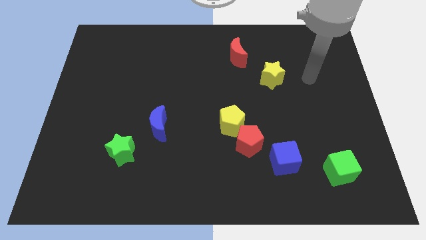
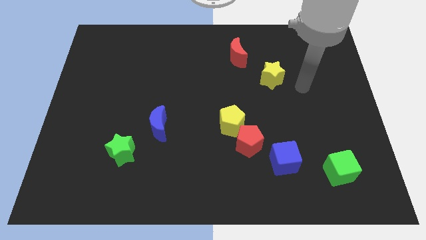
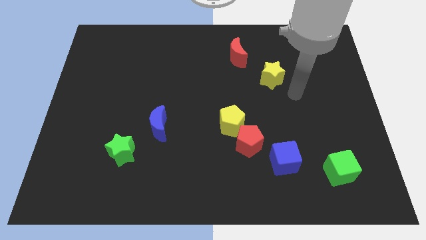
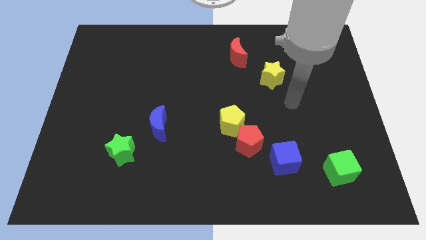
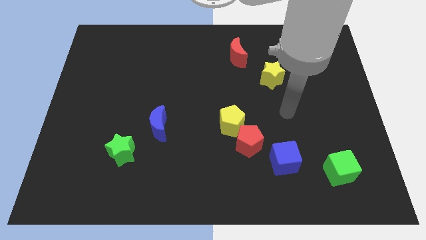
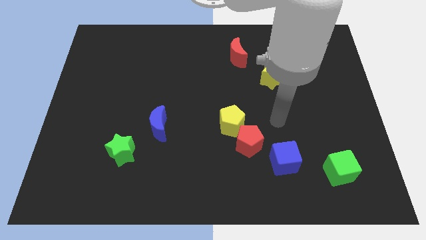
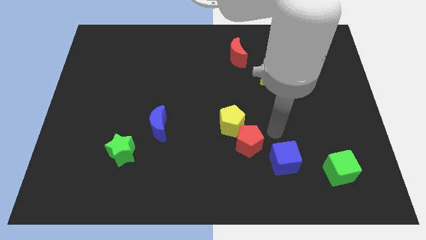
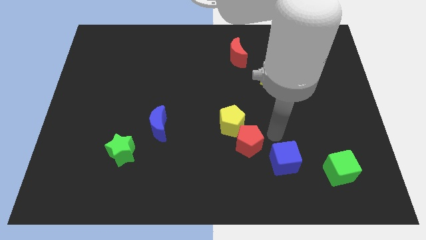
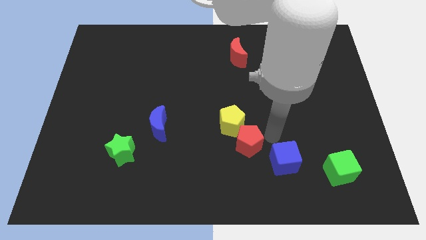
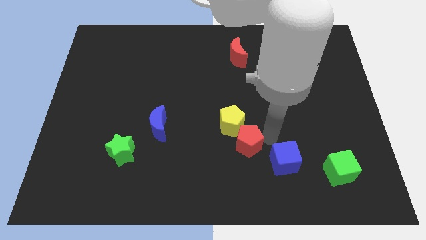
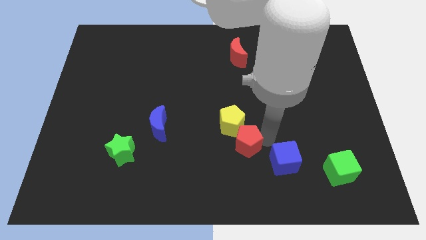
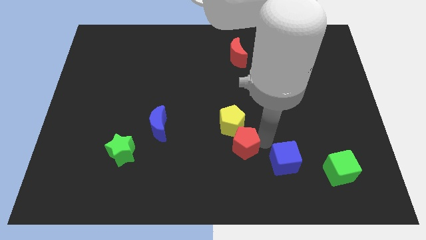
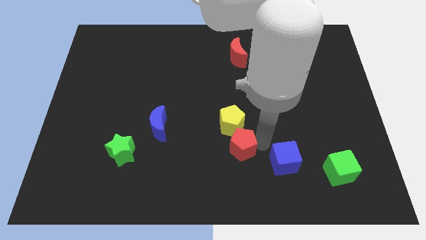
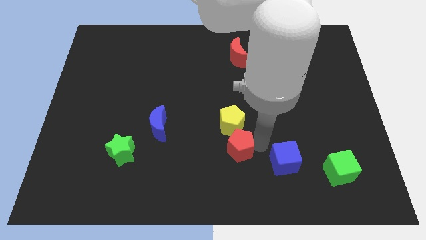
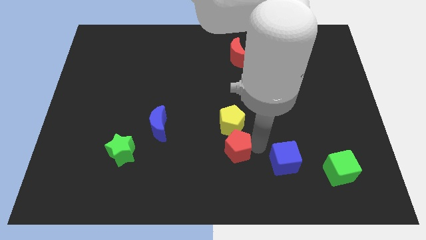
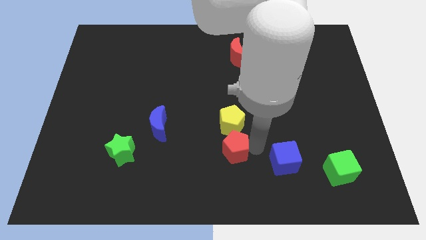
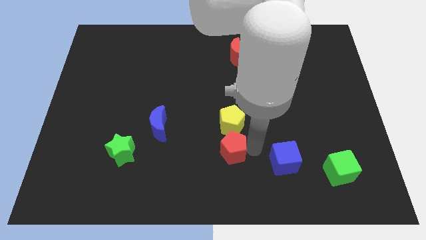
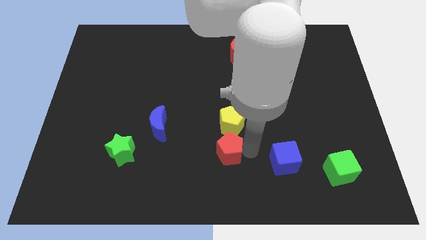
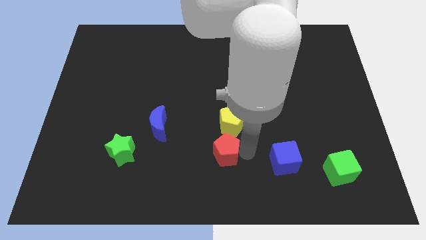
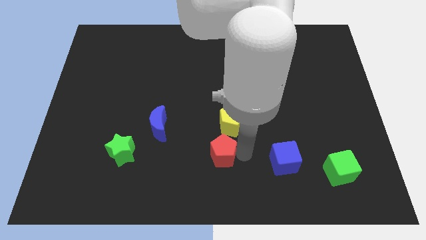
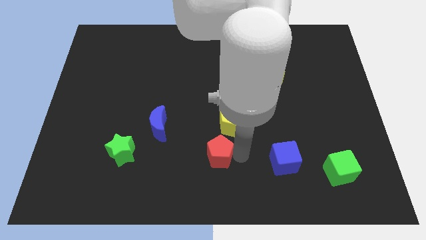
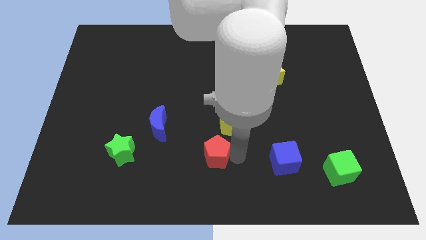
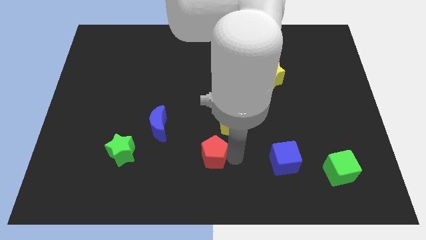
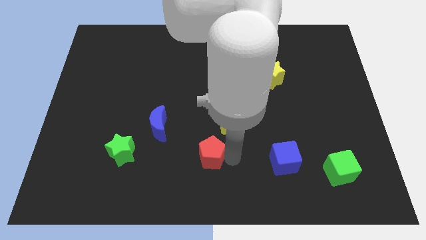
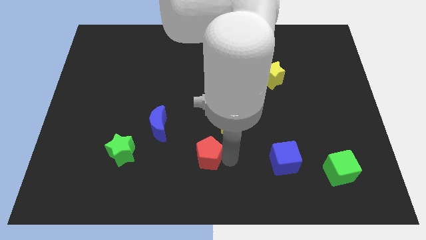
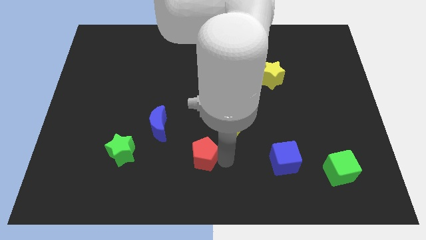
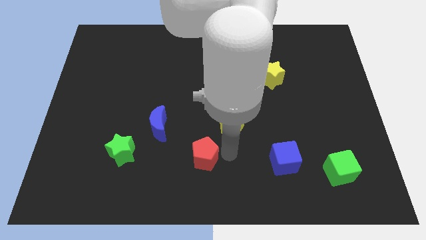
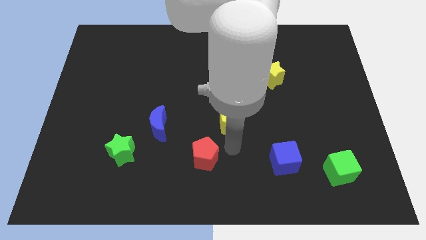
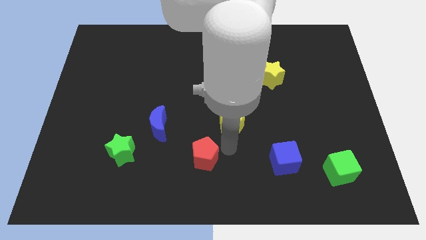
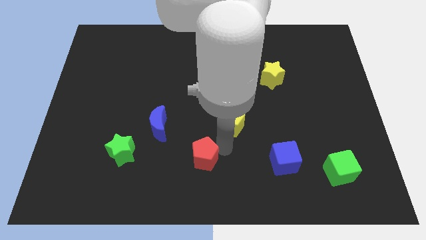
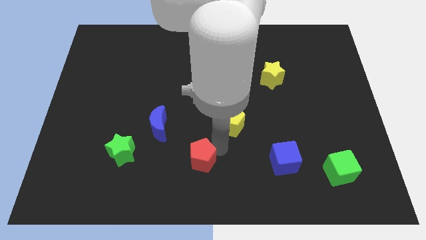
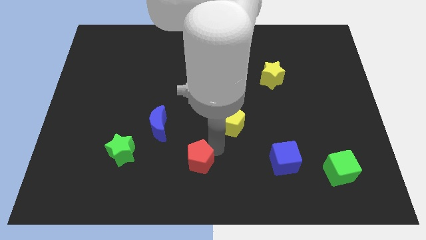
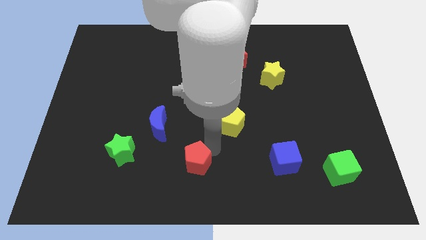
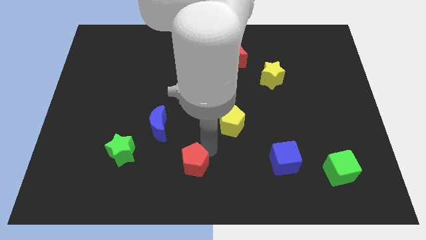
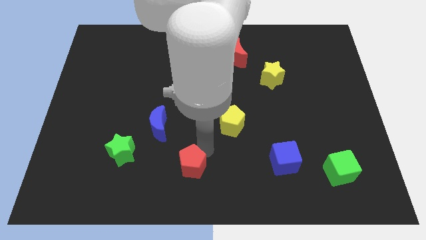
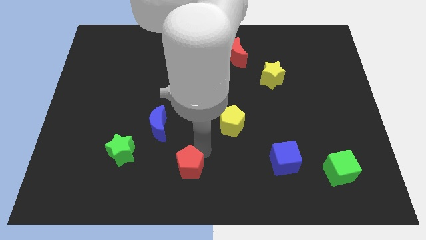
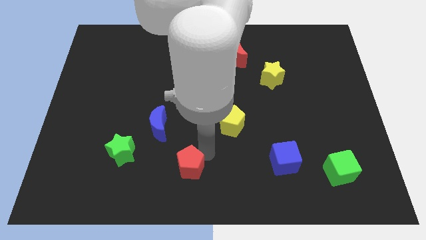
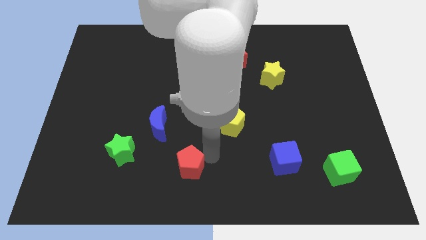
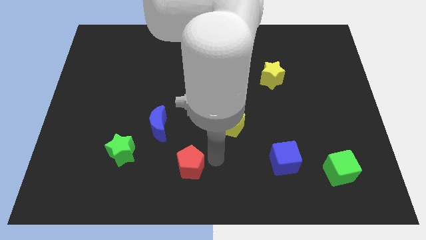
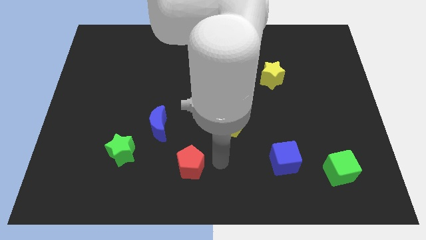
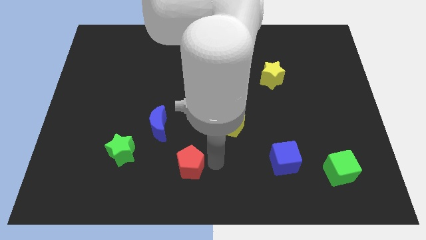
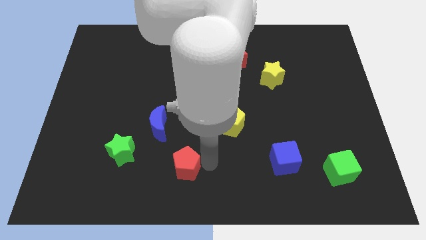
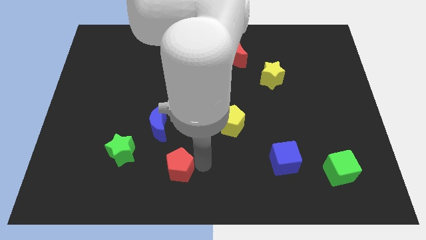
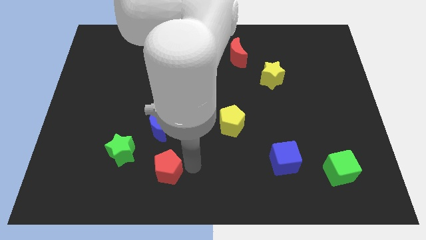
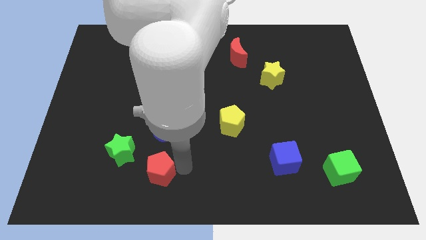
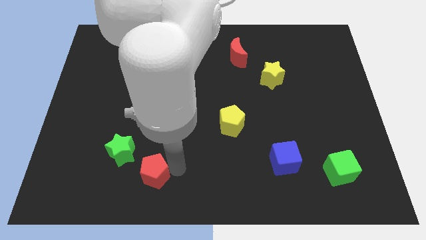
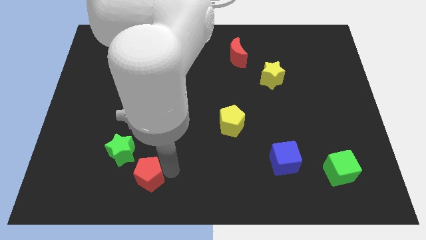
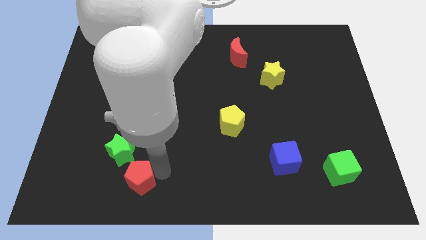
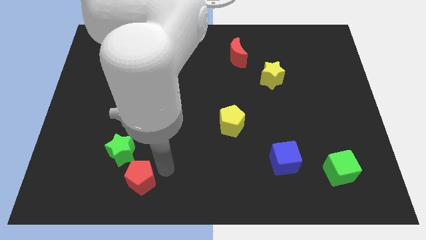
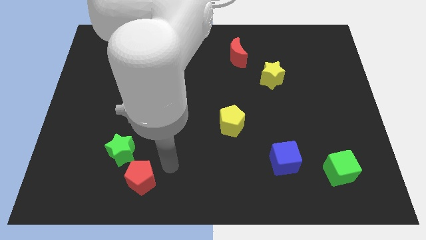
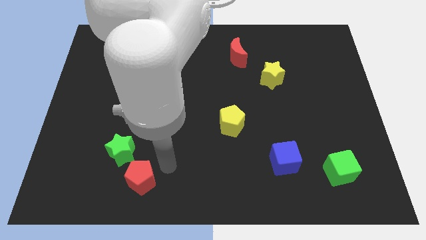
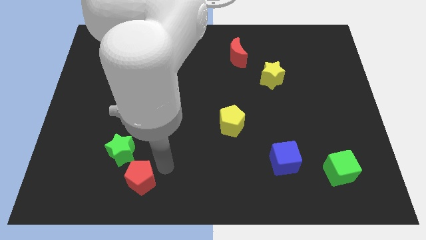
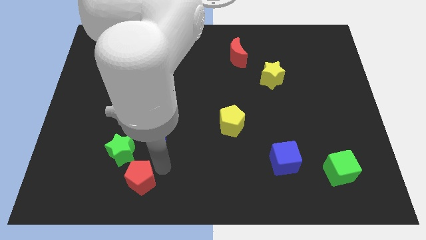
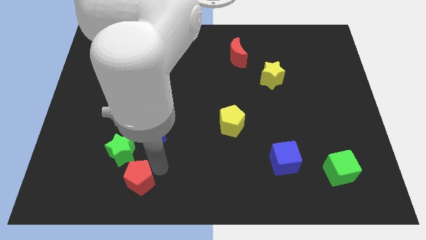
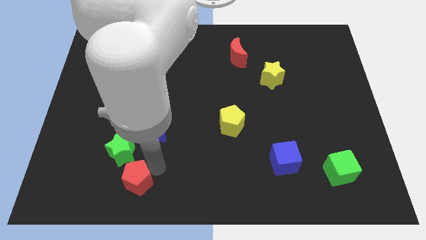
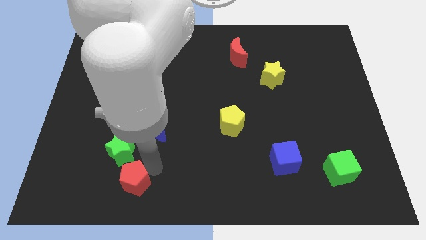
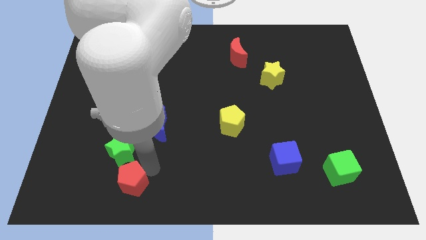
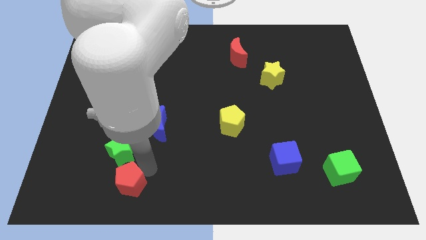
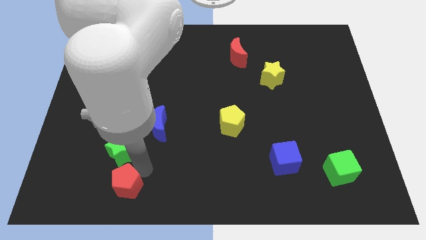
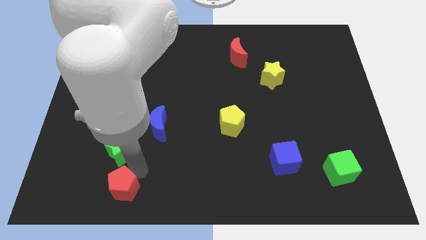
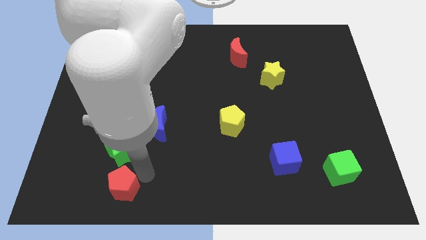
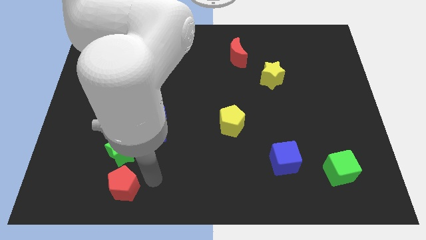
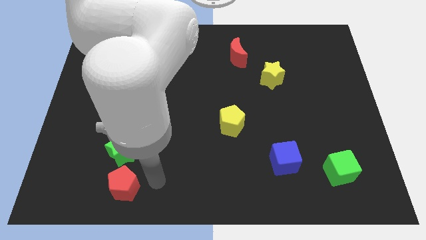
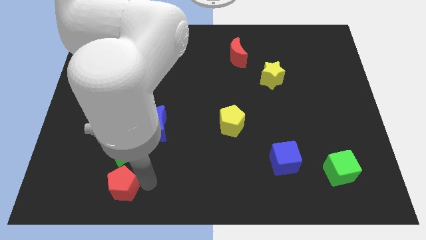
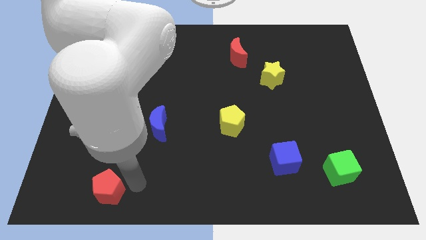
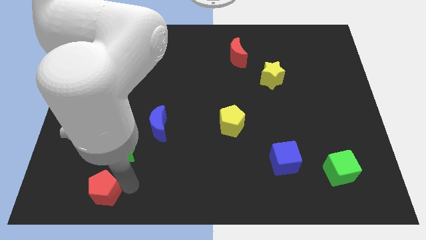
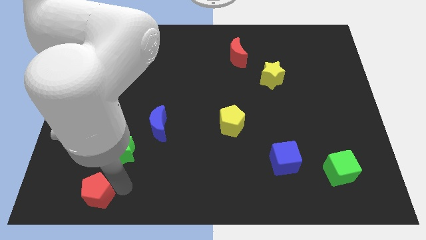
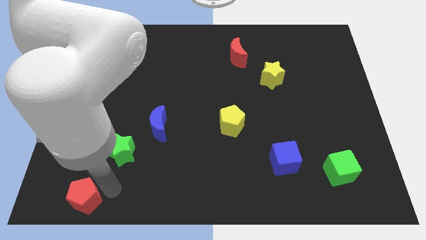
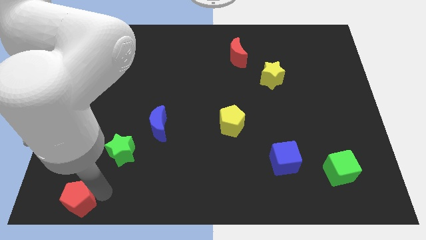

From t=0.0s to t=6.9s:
move the red pentagon to the lower left corner

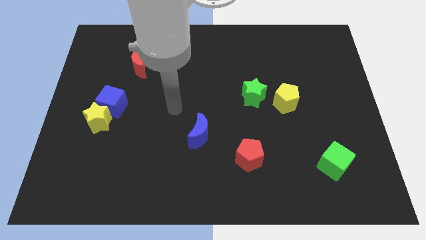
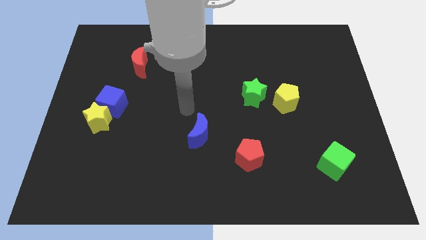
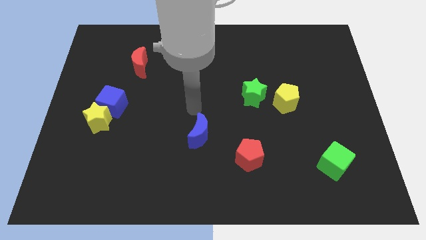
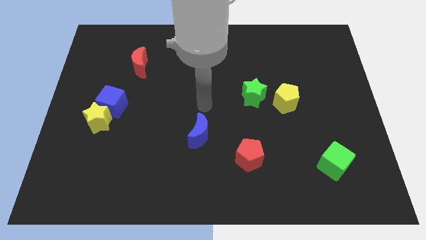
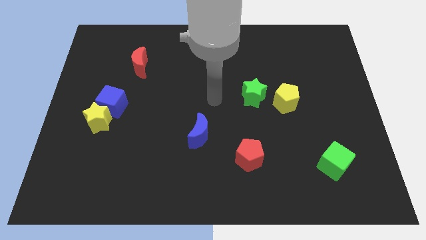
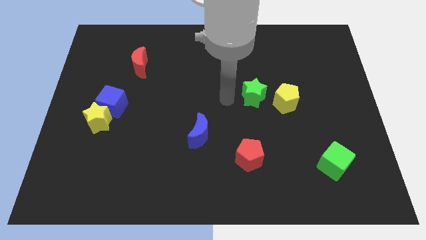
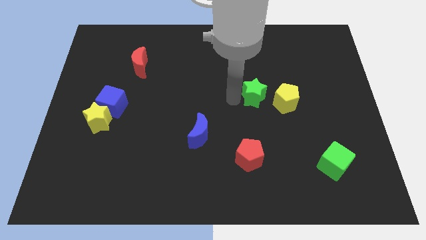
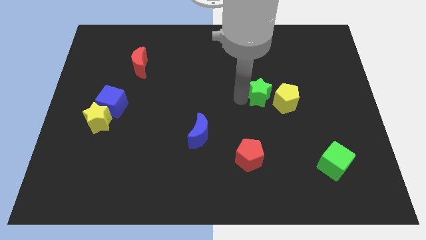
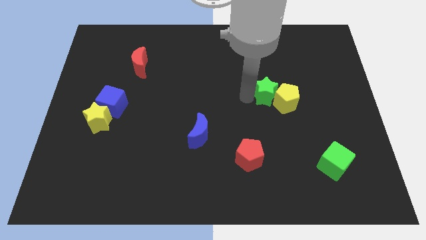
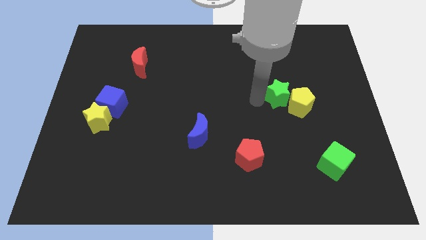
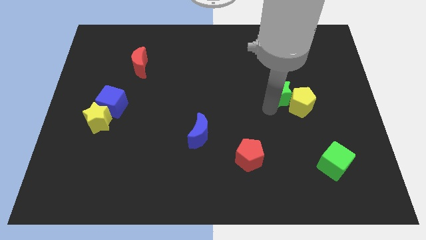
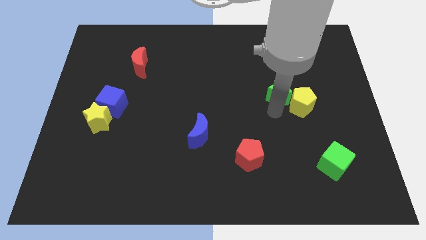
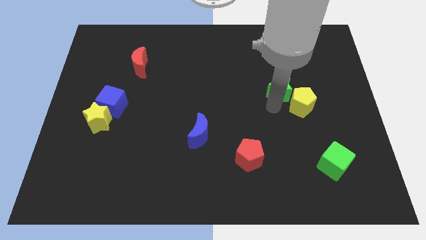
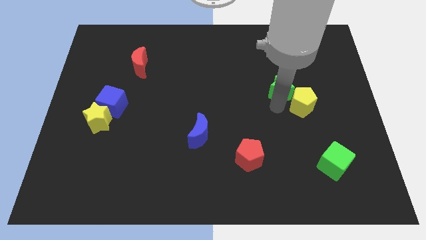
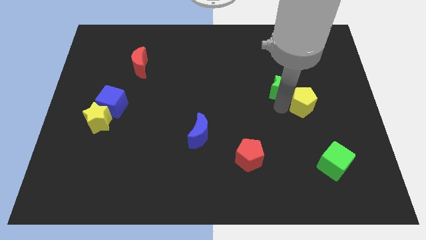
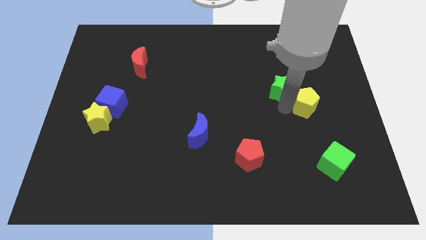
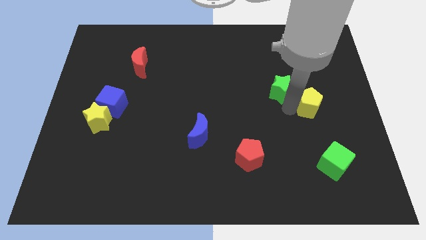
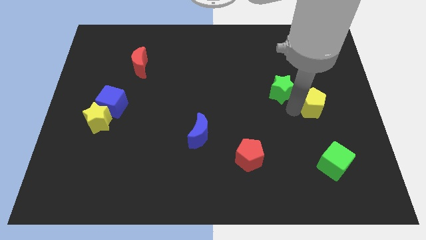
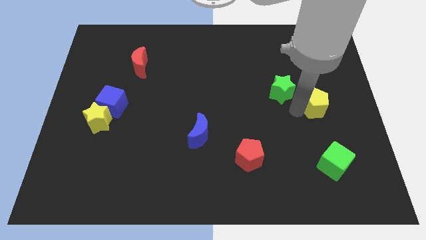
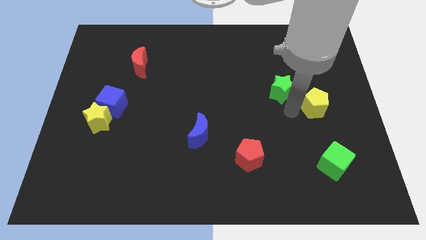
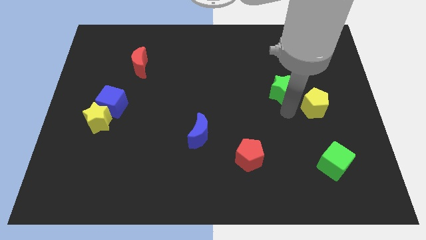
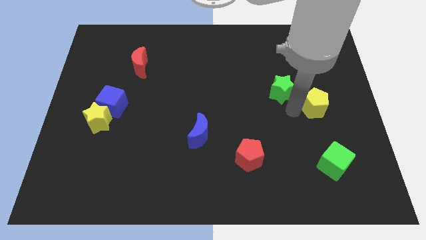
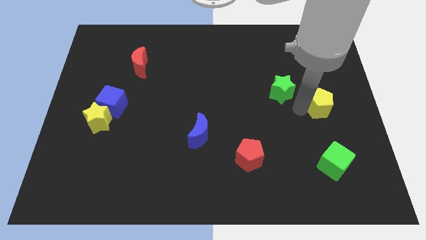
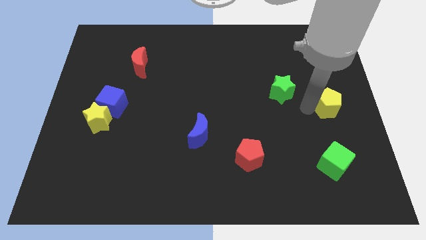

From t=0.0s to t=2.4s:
put the yellow pentagon to the right side
